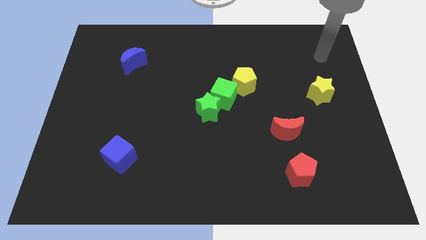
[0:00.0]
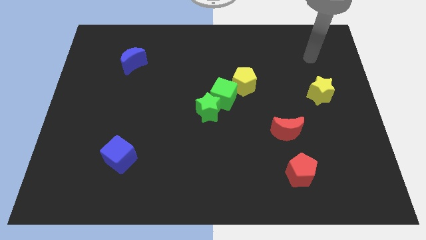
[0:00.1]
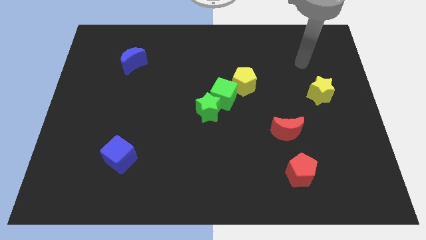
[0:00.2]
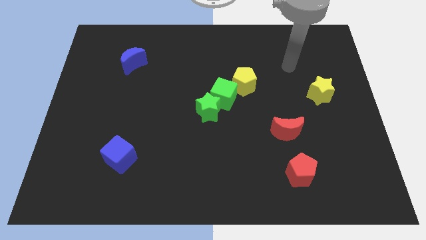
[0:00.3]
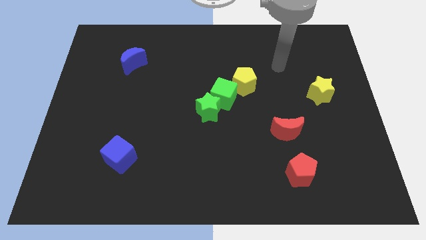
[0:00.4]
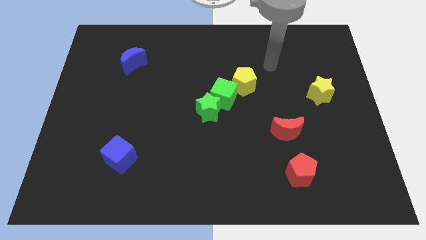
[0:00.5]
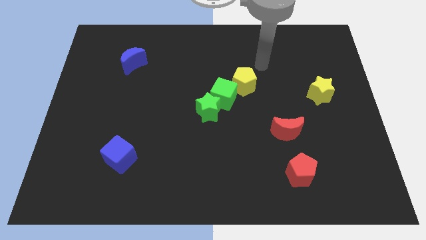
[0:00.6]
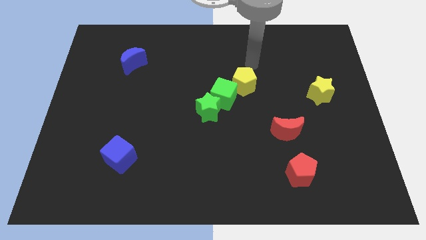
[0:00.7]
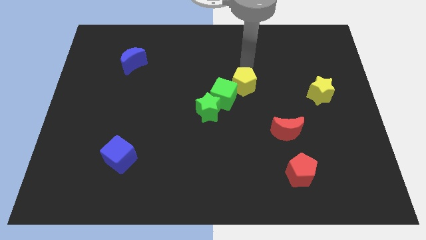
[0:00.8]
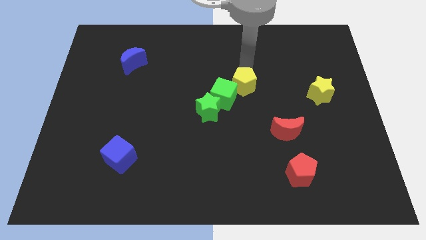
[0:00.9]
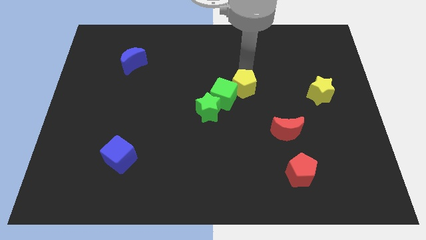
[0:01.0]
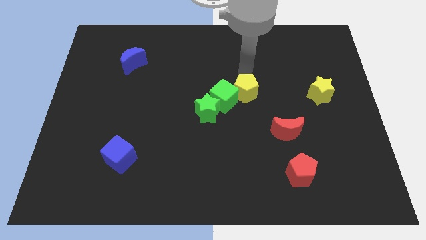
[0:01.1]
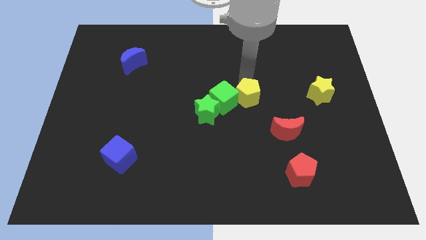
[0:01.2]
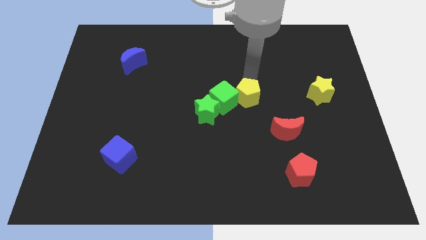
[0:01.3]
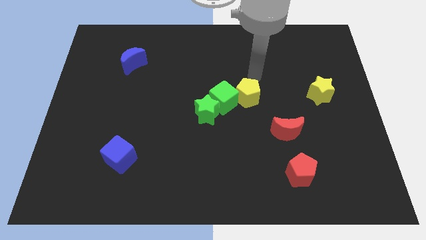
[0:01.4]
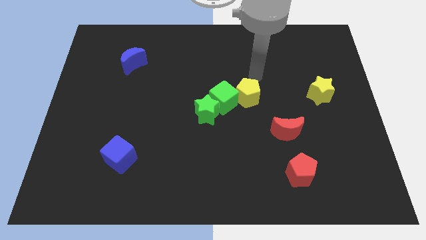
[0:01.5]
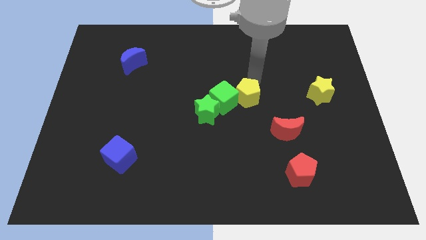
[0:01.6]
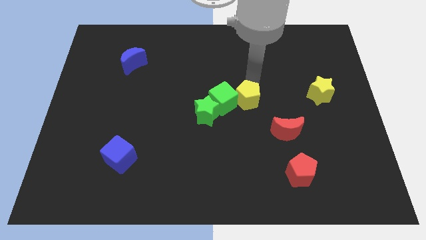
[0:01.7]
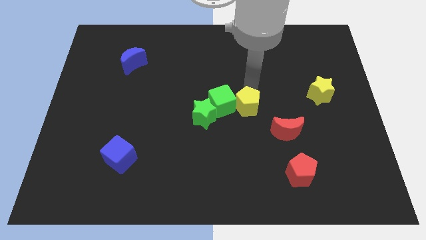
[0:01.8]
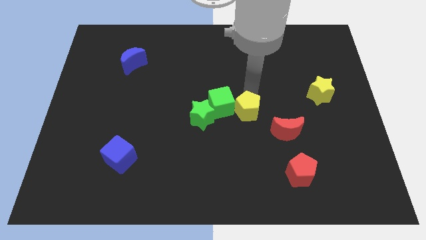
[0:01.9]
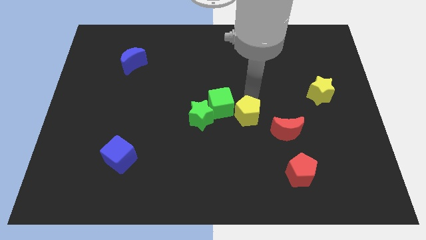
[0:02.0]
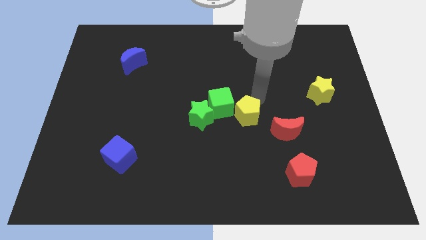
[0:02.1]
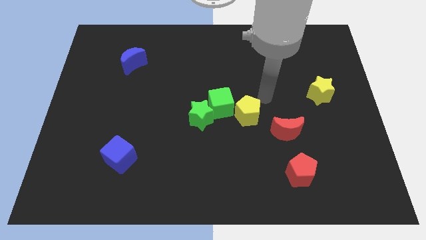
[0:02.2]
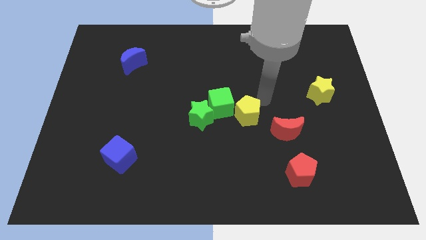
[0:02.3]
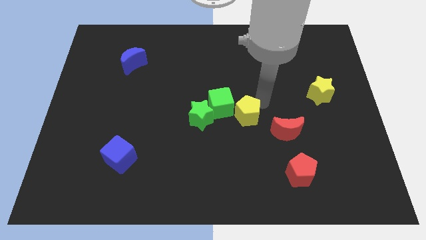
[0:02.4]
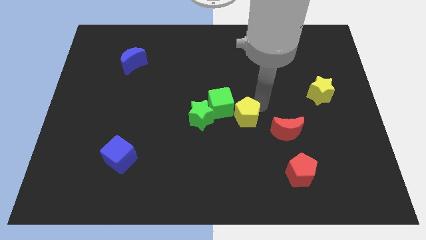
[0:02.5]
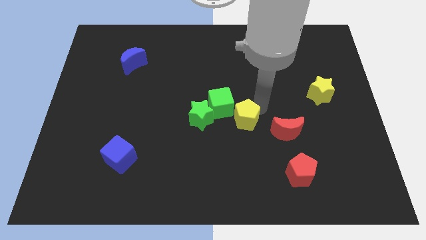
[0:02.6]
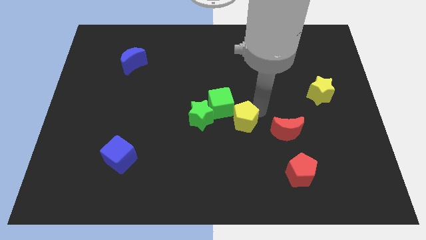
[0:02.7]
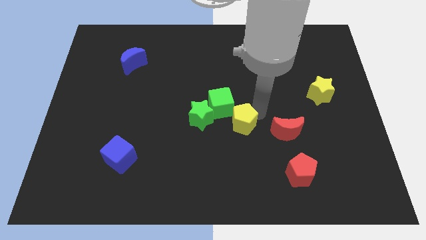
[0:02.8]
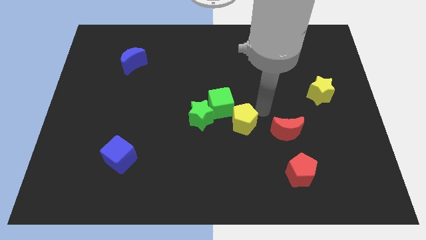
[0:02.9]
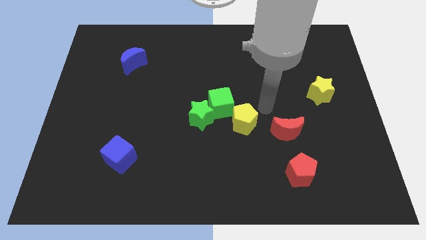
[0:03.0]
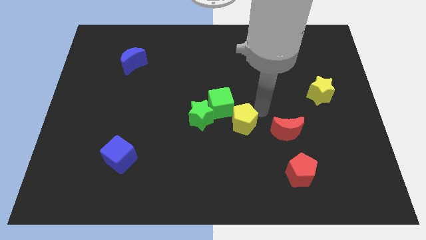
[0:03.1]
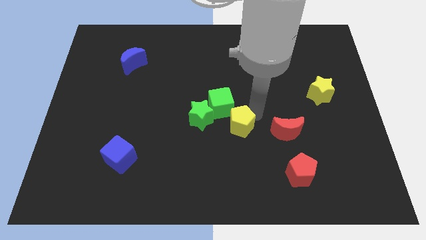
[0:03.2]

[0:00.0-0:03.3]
push the yellow pentagon down and then left slightly

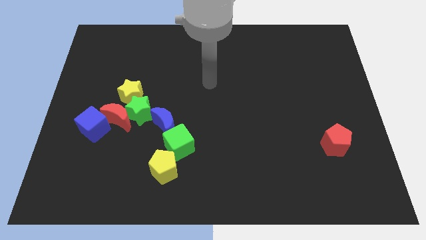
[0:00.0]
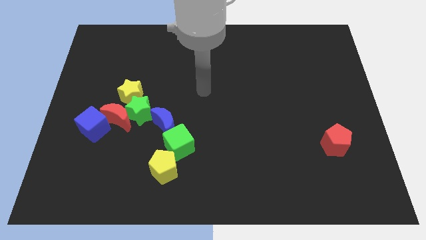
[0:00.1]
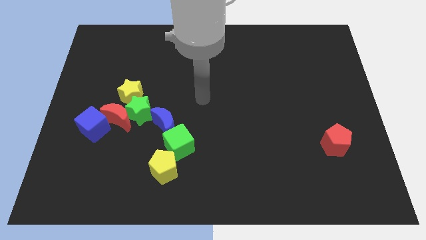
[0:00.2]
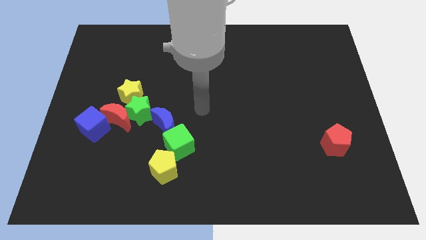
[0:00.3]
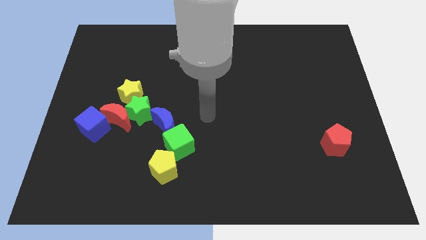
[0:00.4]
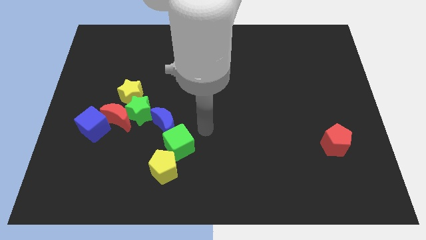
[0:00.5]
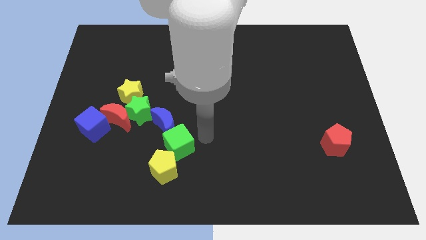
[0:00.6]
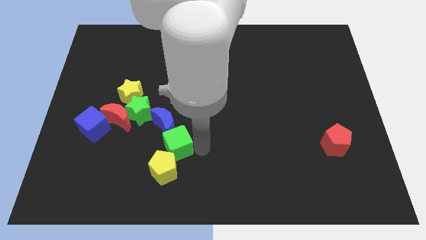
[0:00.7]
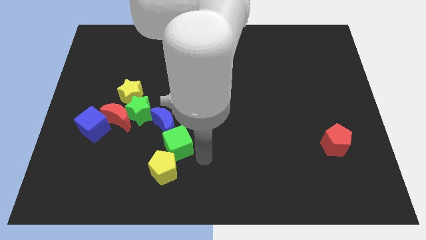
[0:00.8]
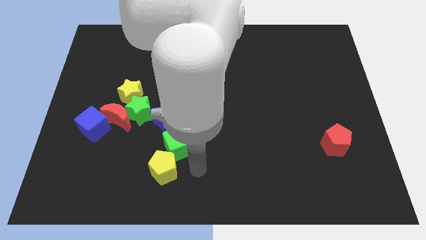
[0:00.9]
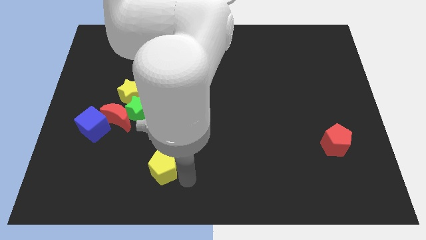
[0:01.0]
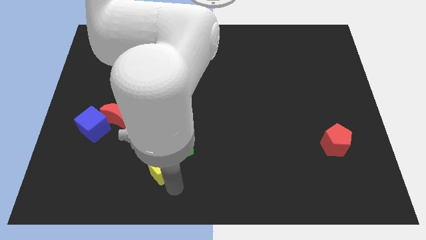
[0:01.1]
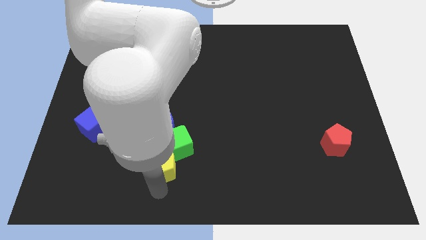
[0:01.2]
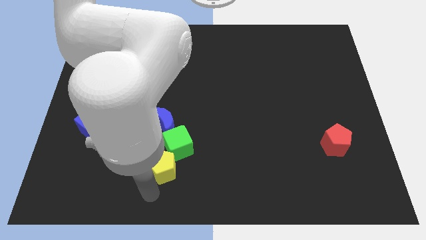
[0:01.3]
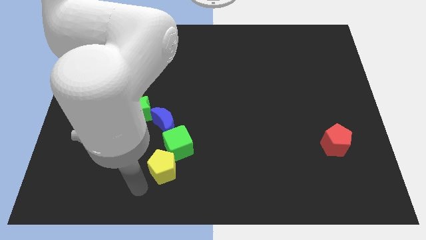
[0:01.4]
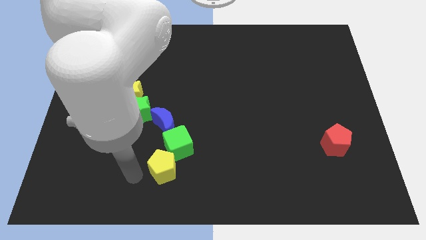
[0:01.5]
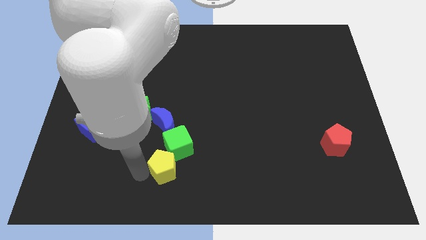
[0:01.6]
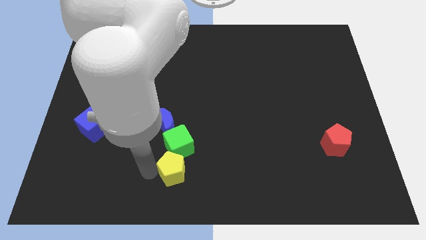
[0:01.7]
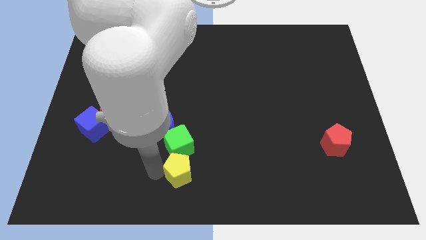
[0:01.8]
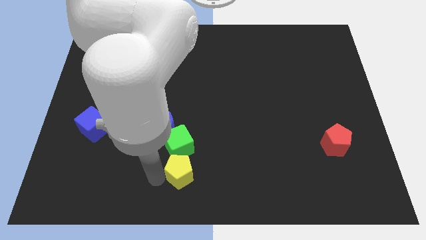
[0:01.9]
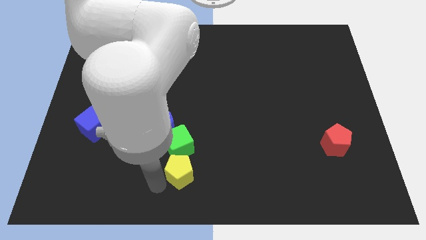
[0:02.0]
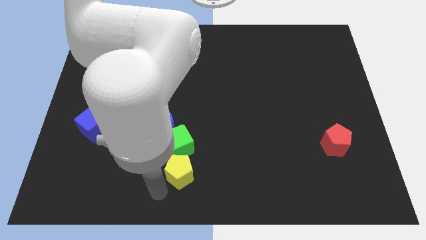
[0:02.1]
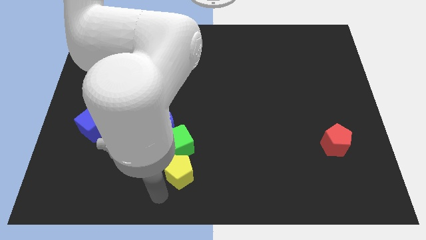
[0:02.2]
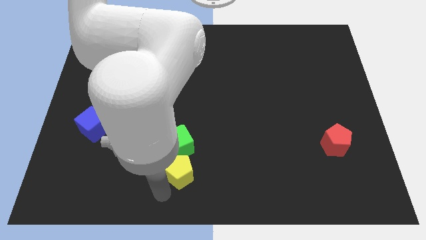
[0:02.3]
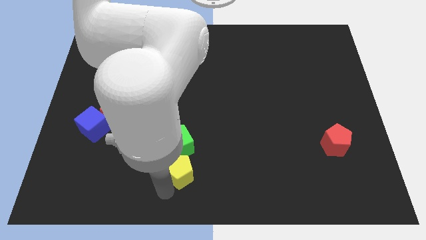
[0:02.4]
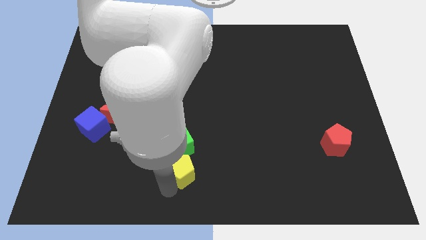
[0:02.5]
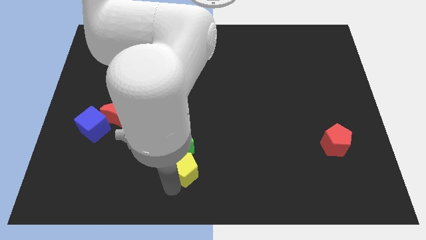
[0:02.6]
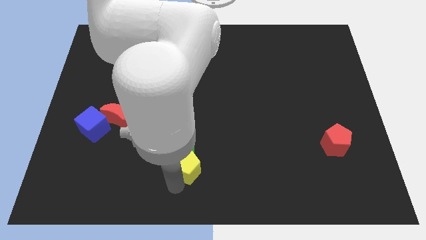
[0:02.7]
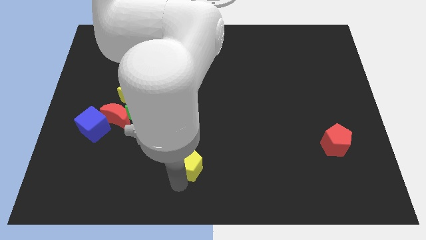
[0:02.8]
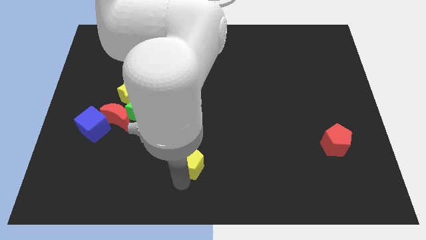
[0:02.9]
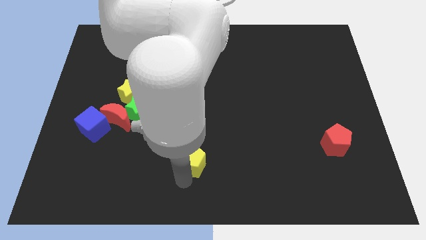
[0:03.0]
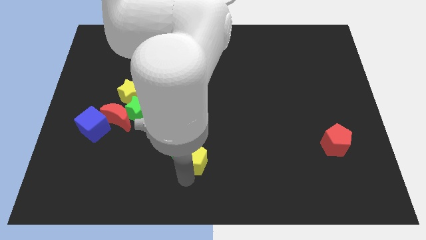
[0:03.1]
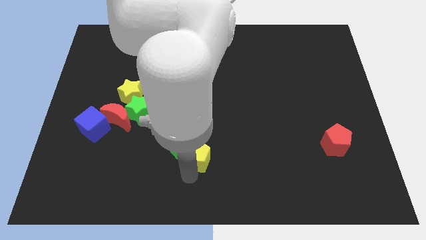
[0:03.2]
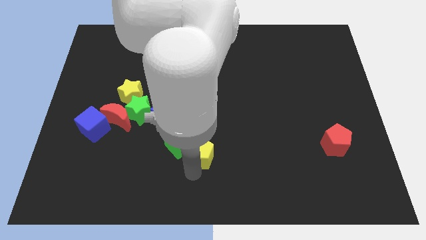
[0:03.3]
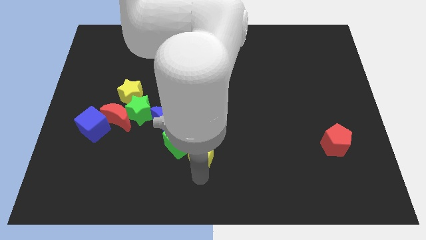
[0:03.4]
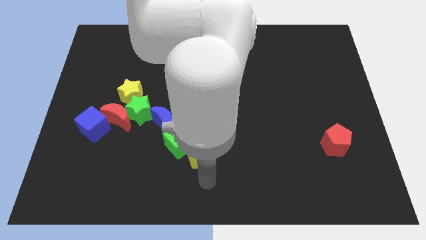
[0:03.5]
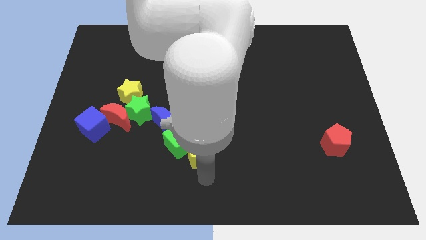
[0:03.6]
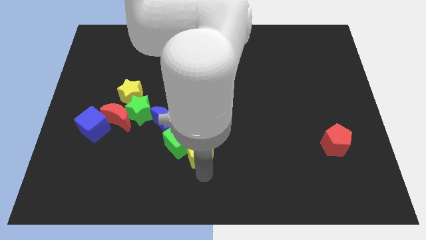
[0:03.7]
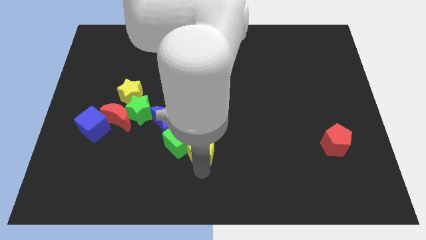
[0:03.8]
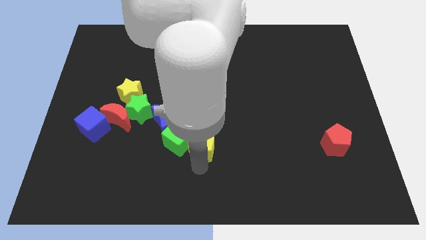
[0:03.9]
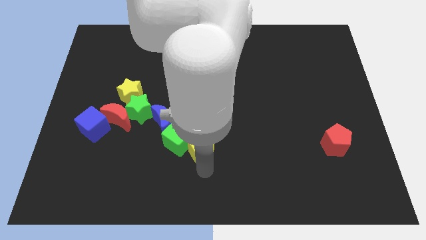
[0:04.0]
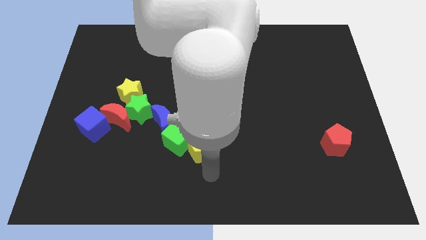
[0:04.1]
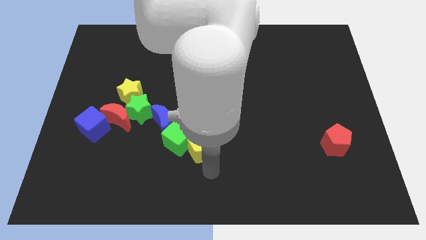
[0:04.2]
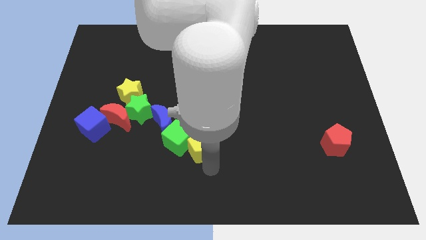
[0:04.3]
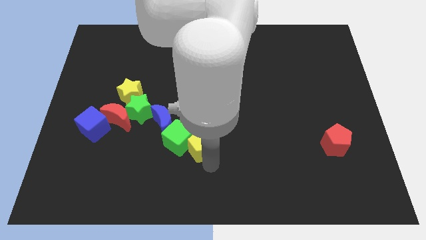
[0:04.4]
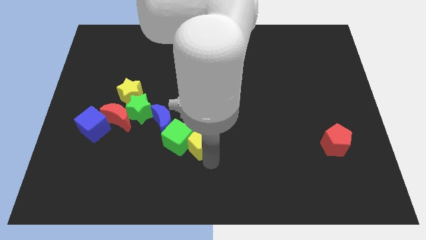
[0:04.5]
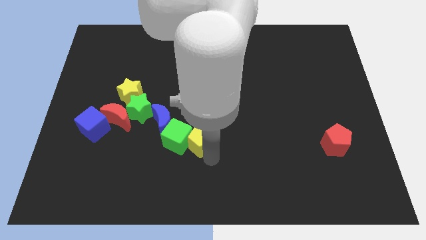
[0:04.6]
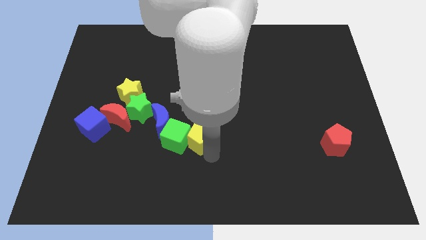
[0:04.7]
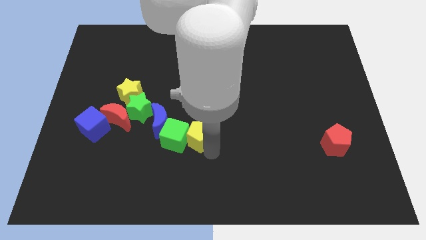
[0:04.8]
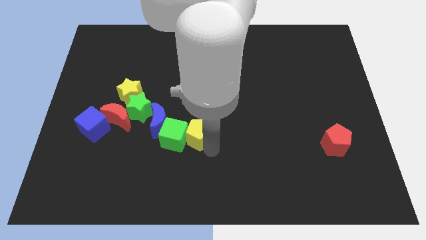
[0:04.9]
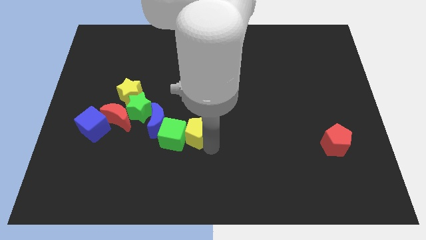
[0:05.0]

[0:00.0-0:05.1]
move the yellow pentagon up a little

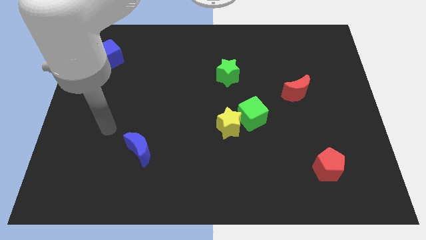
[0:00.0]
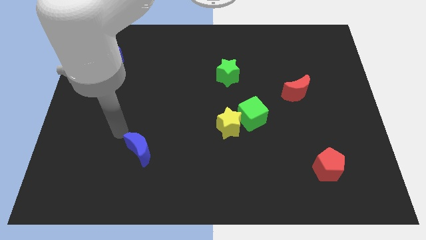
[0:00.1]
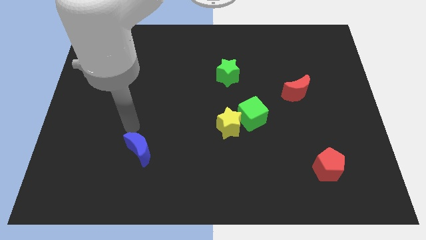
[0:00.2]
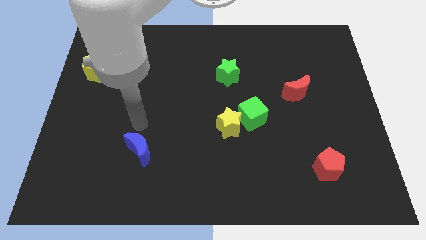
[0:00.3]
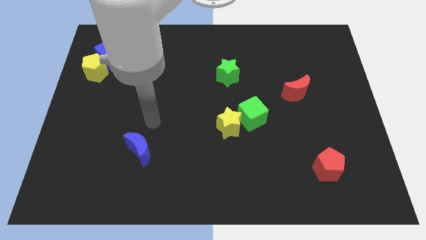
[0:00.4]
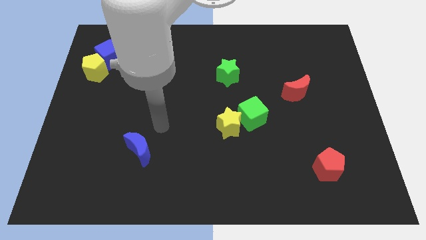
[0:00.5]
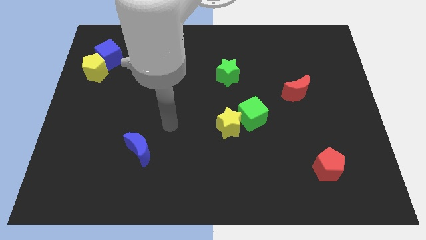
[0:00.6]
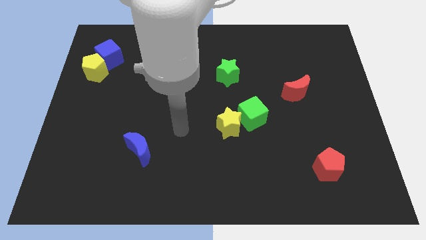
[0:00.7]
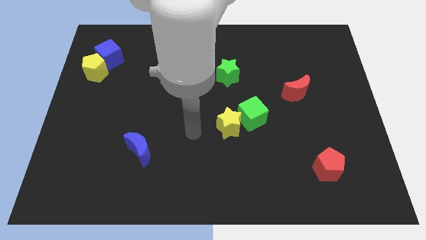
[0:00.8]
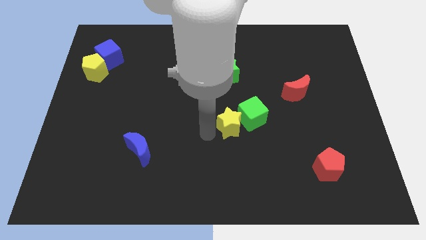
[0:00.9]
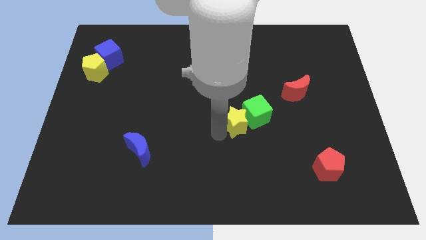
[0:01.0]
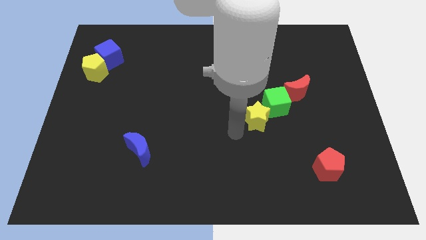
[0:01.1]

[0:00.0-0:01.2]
slide the green cube diagonally up and right slightly
